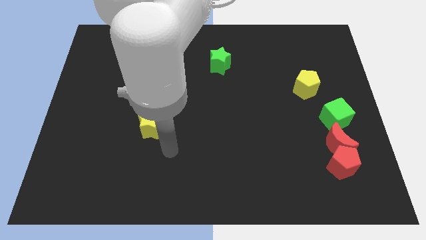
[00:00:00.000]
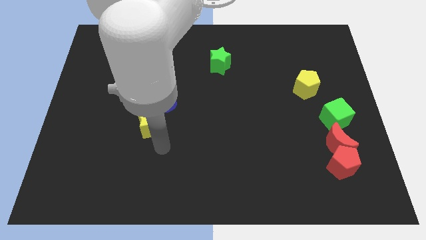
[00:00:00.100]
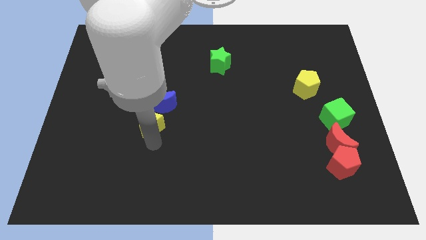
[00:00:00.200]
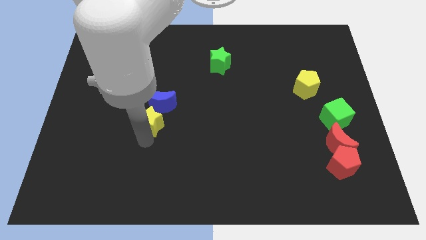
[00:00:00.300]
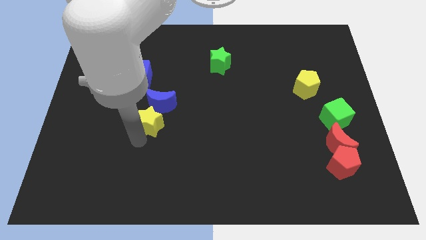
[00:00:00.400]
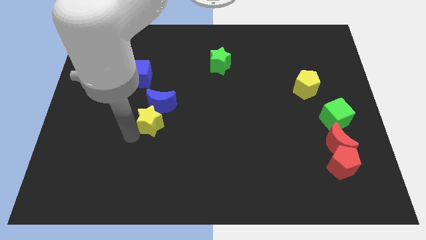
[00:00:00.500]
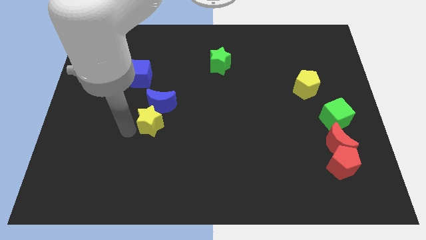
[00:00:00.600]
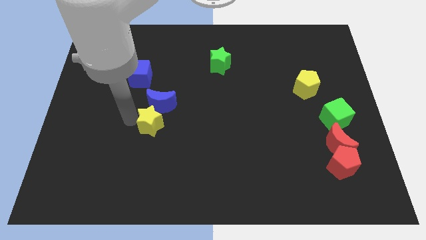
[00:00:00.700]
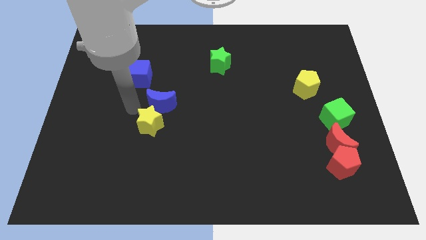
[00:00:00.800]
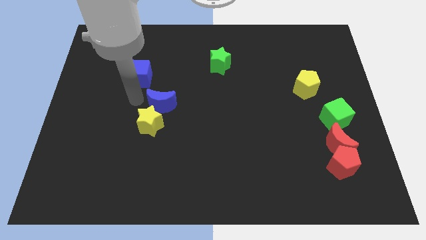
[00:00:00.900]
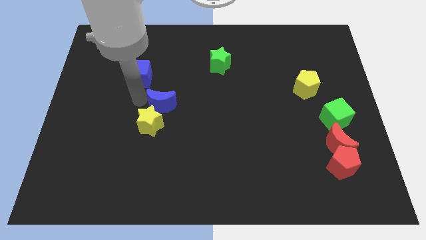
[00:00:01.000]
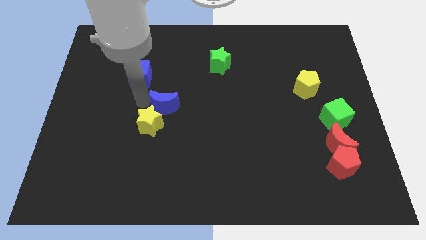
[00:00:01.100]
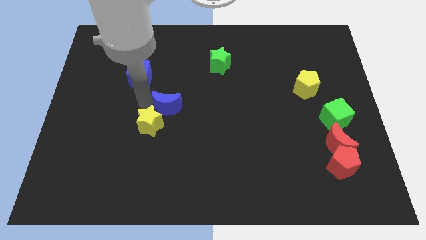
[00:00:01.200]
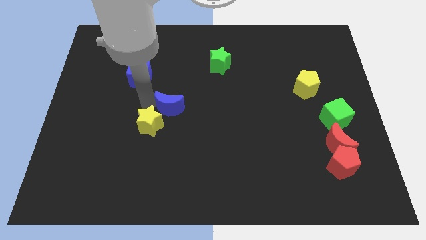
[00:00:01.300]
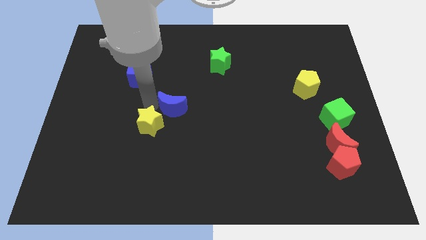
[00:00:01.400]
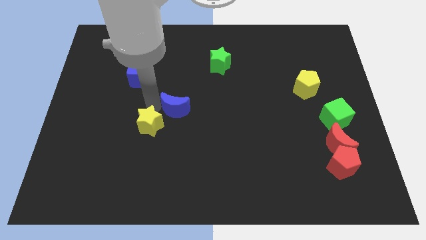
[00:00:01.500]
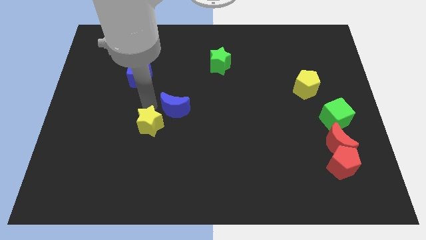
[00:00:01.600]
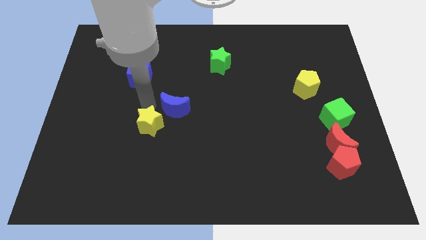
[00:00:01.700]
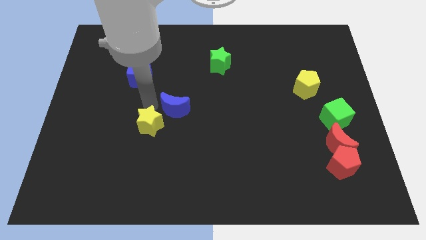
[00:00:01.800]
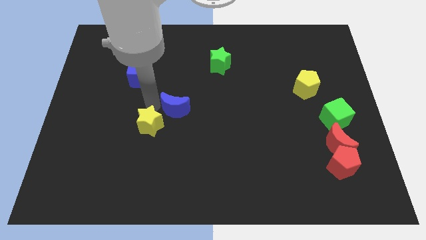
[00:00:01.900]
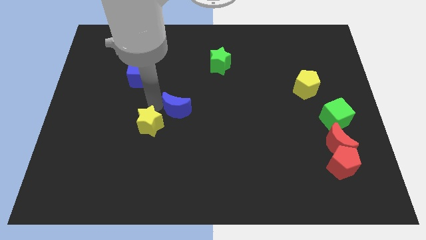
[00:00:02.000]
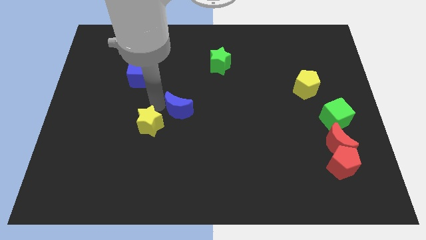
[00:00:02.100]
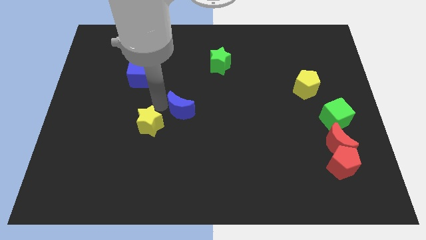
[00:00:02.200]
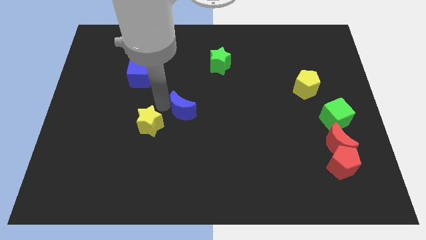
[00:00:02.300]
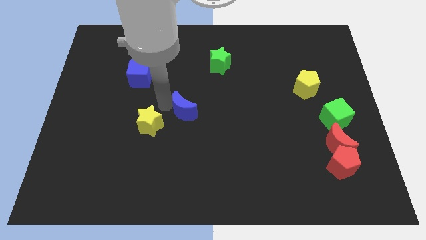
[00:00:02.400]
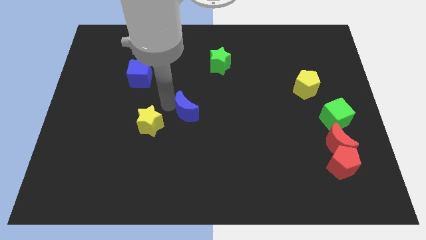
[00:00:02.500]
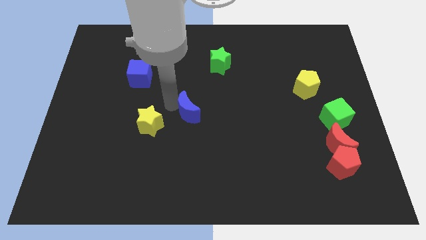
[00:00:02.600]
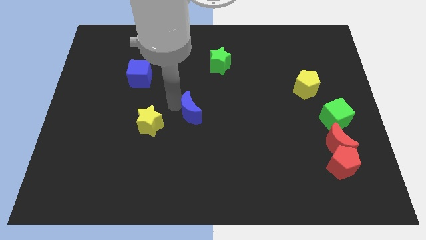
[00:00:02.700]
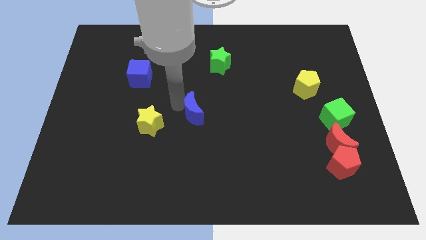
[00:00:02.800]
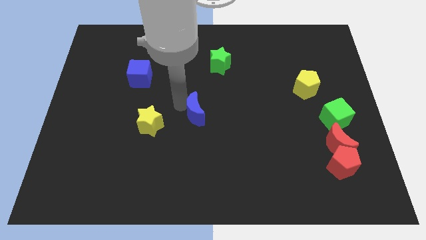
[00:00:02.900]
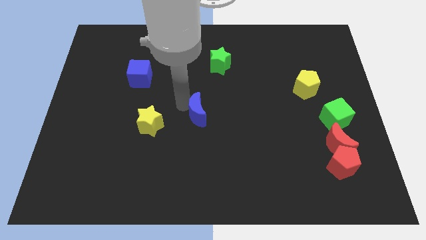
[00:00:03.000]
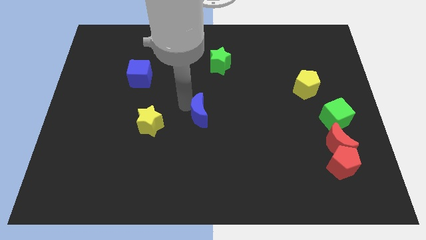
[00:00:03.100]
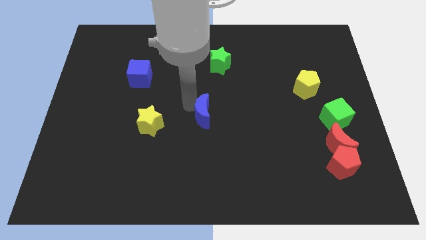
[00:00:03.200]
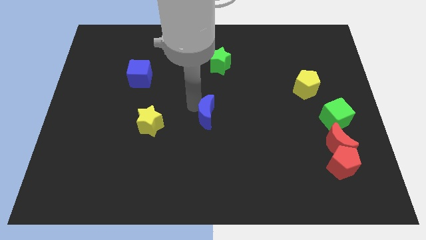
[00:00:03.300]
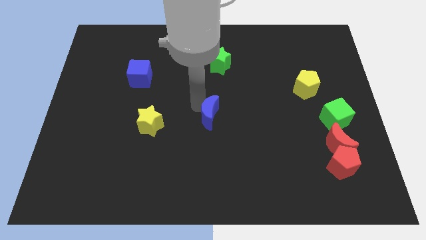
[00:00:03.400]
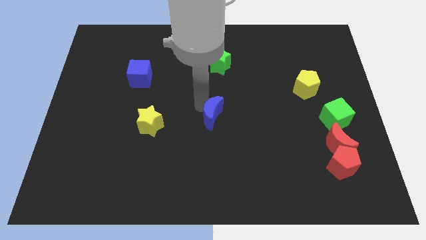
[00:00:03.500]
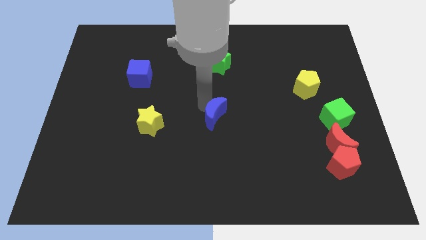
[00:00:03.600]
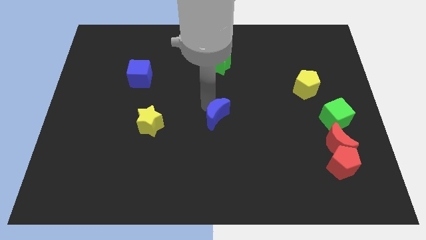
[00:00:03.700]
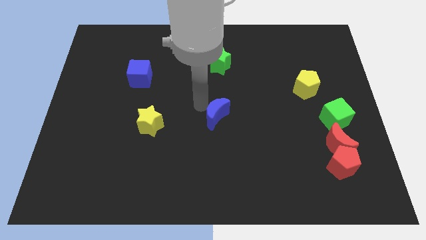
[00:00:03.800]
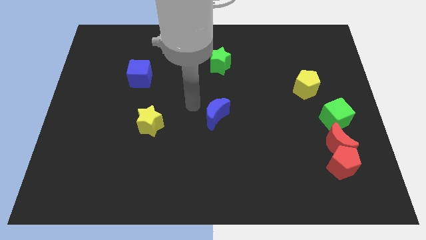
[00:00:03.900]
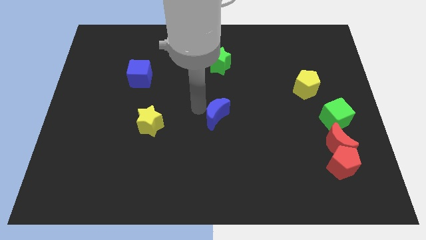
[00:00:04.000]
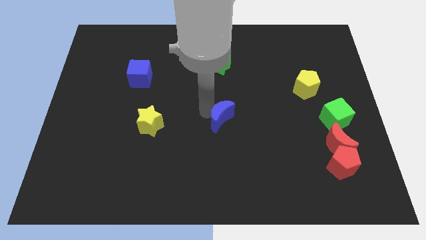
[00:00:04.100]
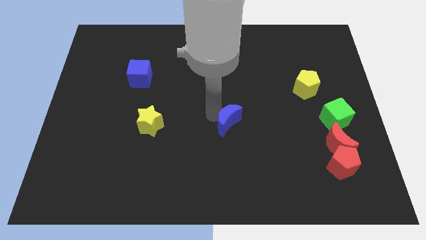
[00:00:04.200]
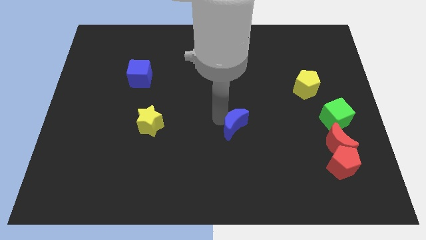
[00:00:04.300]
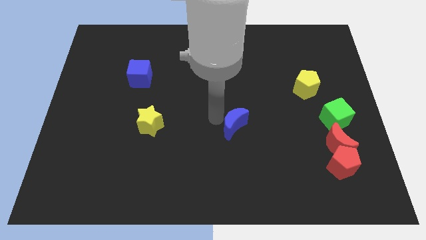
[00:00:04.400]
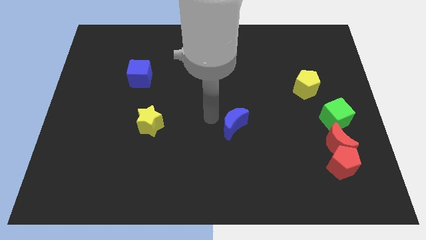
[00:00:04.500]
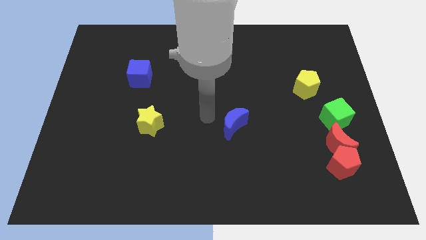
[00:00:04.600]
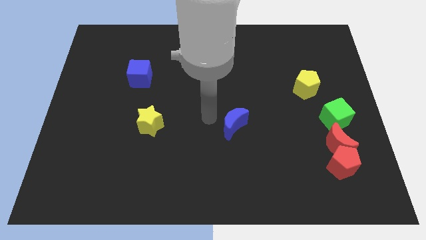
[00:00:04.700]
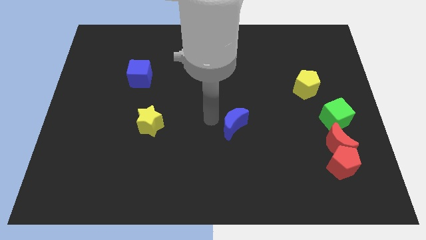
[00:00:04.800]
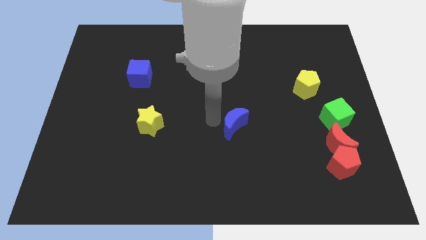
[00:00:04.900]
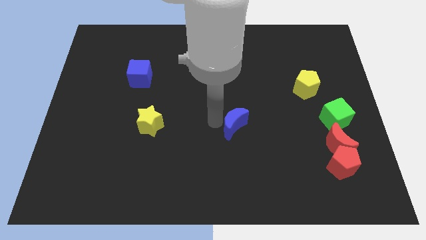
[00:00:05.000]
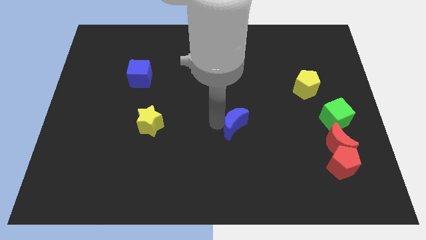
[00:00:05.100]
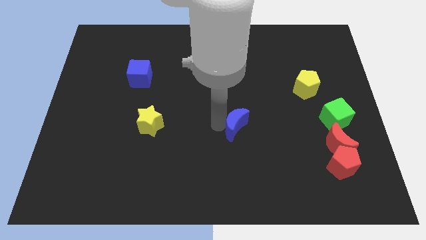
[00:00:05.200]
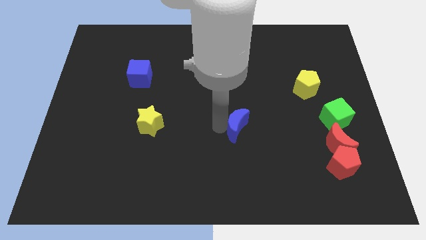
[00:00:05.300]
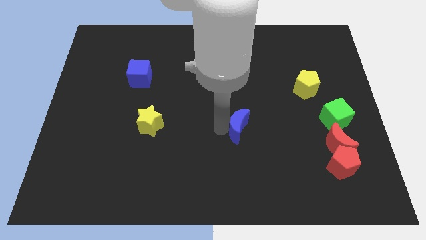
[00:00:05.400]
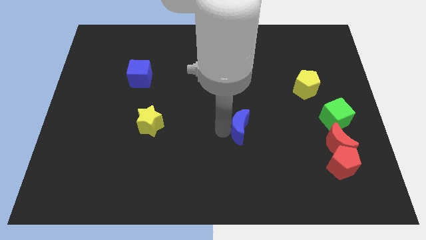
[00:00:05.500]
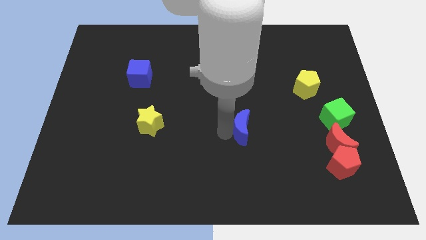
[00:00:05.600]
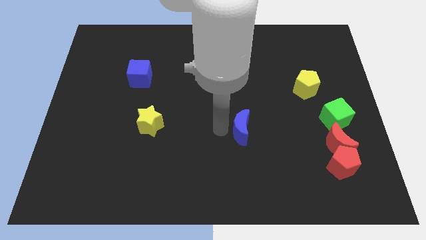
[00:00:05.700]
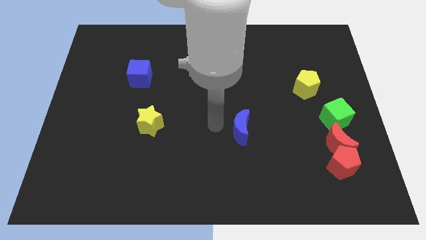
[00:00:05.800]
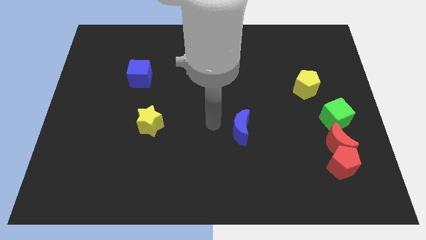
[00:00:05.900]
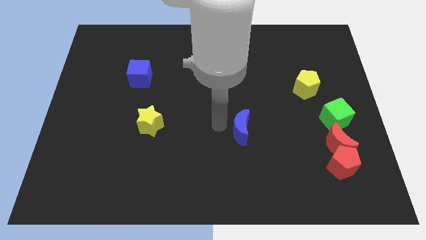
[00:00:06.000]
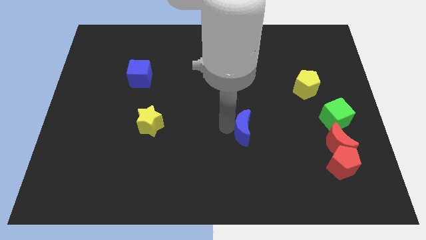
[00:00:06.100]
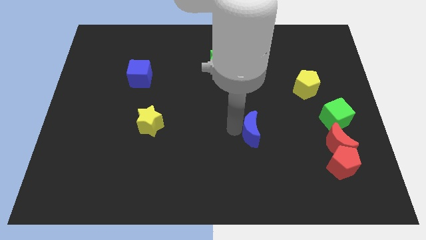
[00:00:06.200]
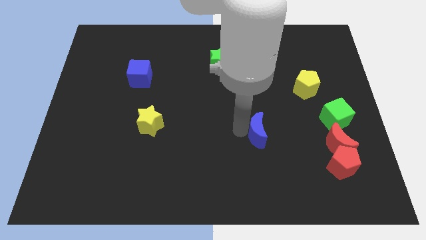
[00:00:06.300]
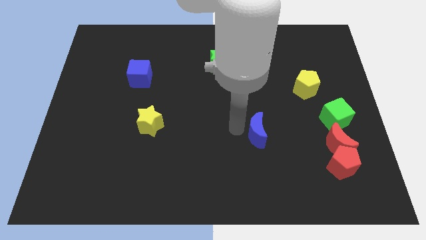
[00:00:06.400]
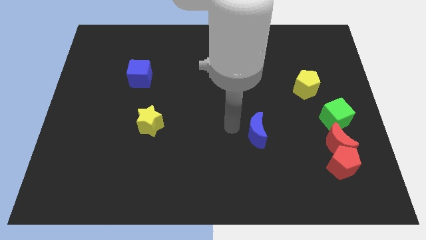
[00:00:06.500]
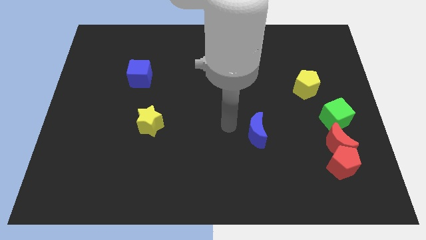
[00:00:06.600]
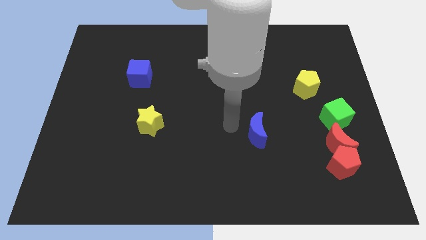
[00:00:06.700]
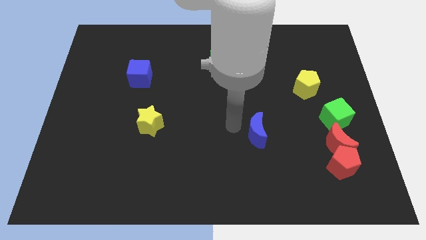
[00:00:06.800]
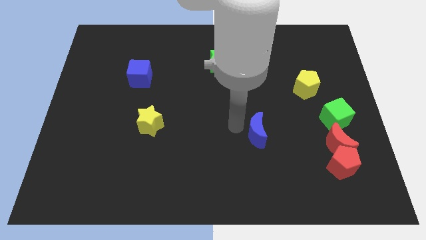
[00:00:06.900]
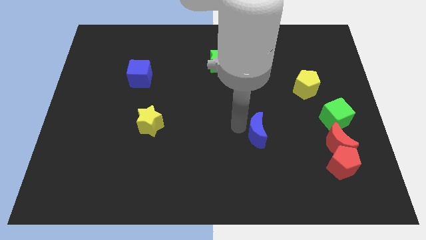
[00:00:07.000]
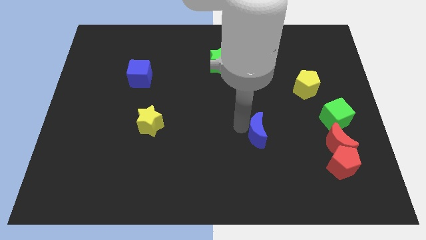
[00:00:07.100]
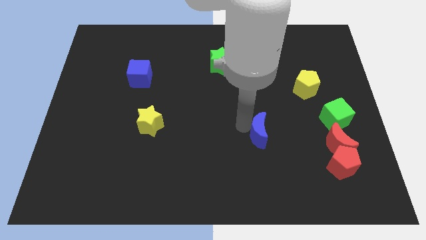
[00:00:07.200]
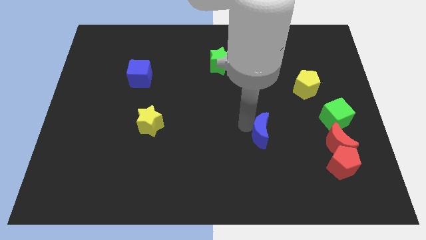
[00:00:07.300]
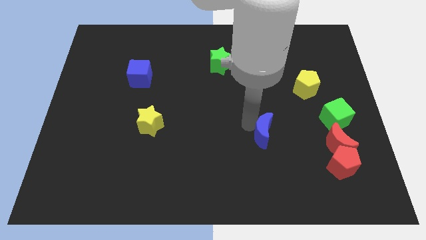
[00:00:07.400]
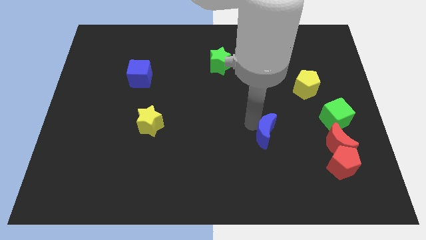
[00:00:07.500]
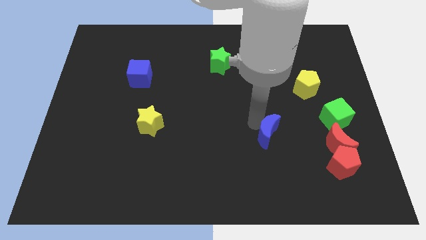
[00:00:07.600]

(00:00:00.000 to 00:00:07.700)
push the blue moon to the left of the red moon
